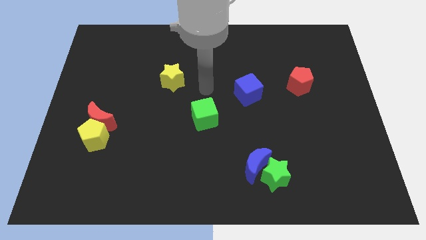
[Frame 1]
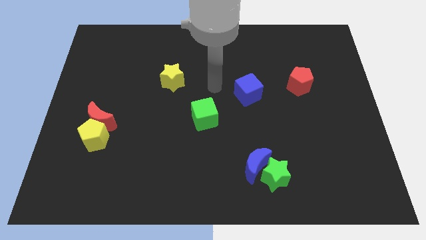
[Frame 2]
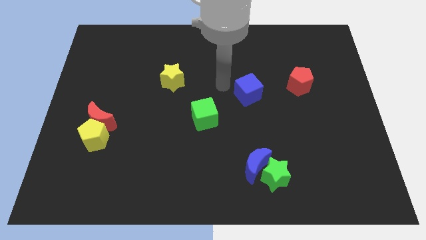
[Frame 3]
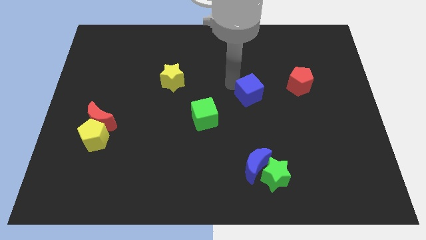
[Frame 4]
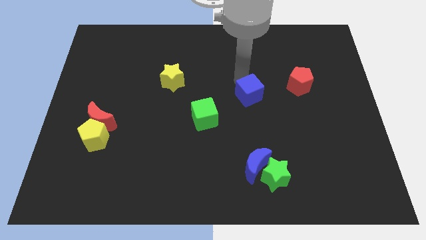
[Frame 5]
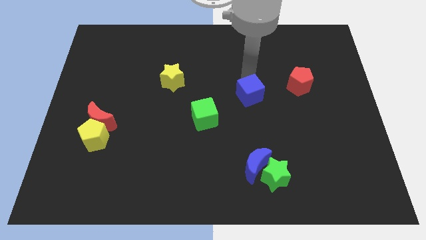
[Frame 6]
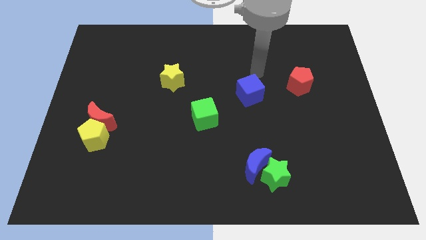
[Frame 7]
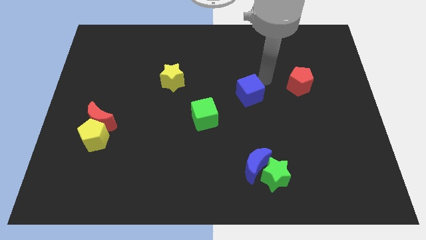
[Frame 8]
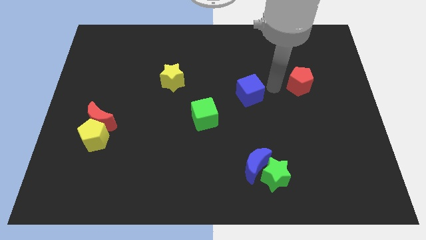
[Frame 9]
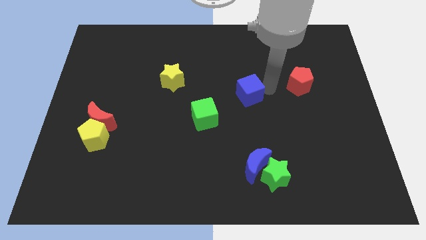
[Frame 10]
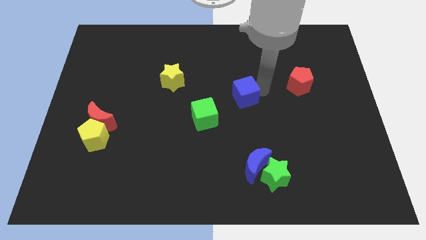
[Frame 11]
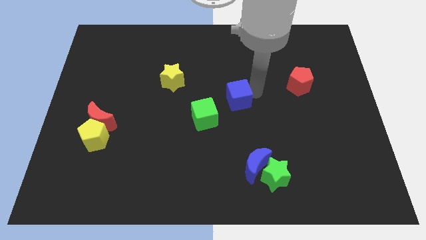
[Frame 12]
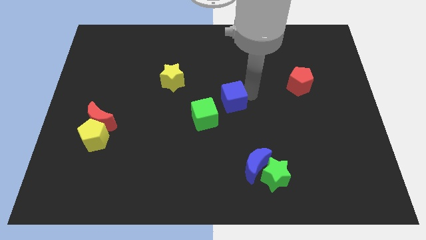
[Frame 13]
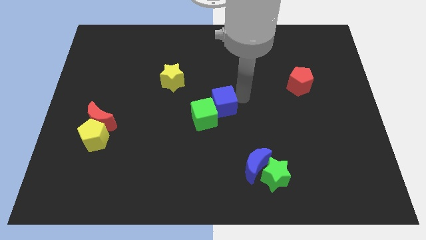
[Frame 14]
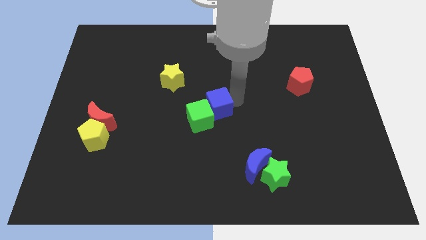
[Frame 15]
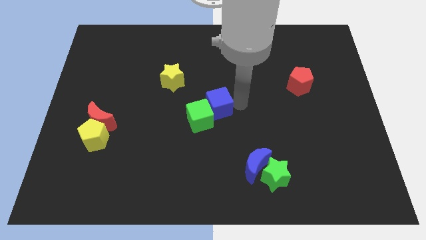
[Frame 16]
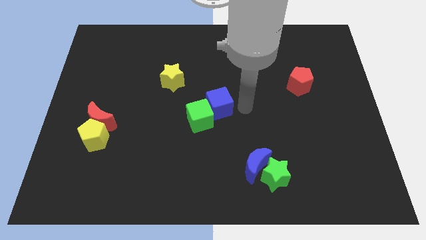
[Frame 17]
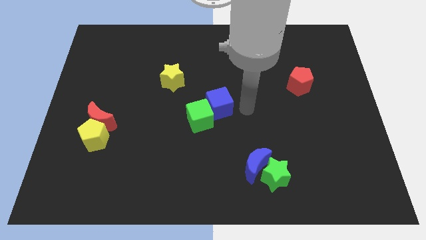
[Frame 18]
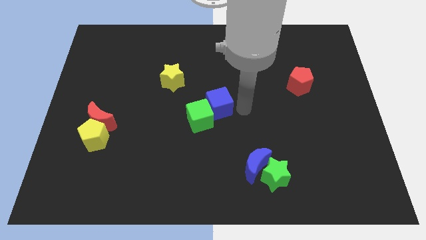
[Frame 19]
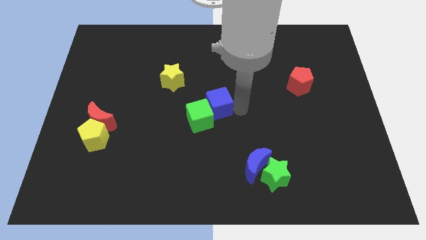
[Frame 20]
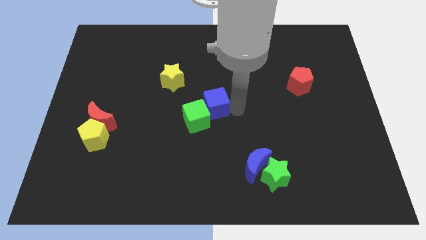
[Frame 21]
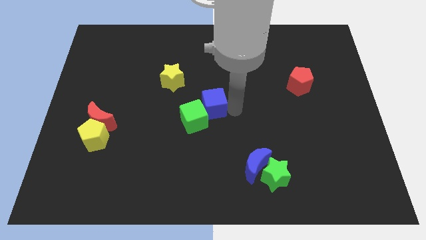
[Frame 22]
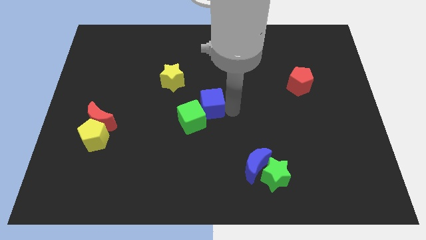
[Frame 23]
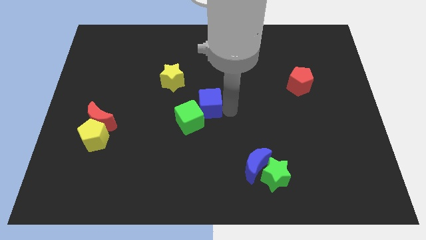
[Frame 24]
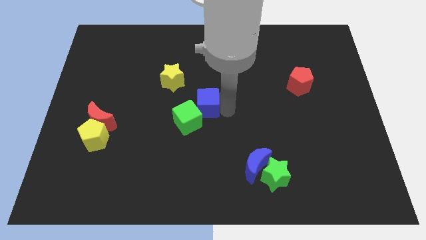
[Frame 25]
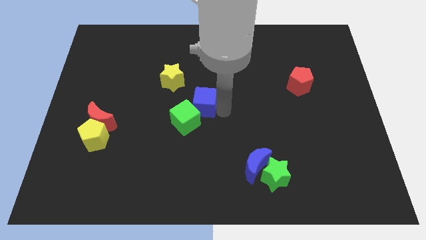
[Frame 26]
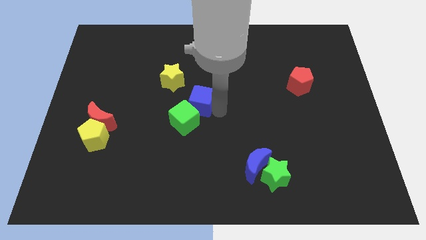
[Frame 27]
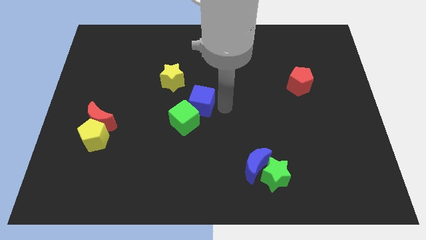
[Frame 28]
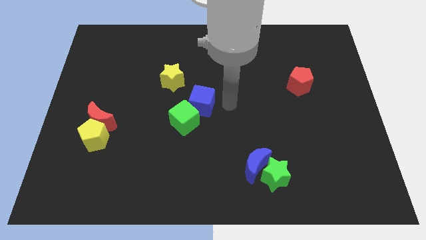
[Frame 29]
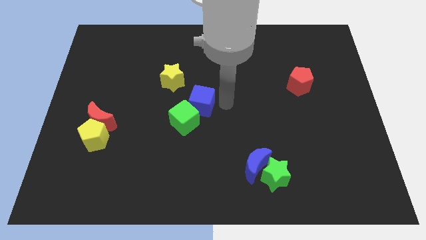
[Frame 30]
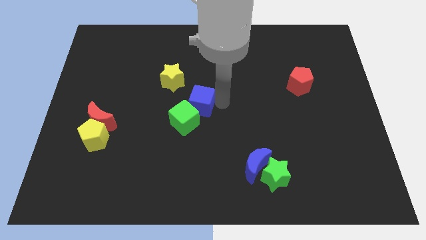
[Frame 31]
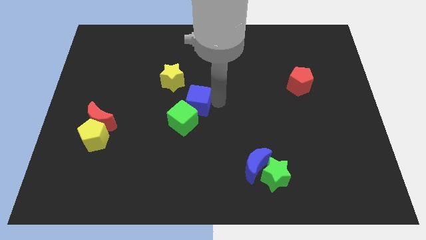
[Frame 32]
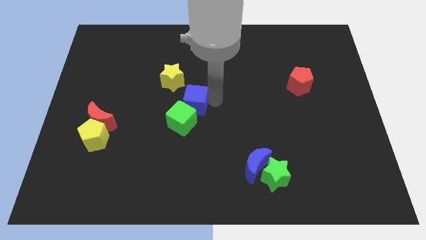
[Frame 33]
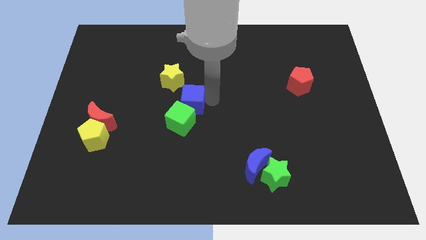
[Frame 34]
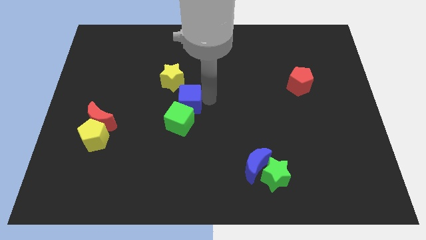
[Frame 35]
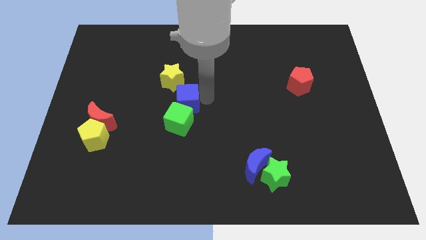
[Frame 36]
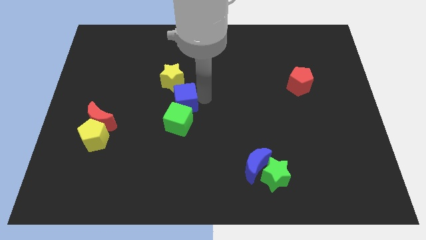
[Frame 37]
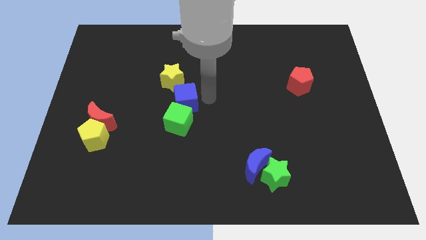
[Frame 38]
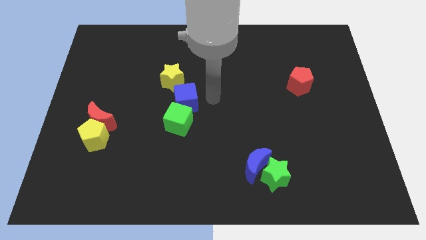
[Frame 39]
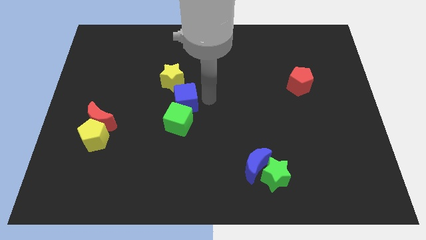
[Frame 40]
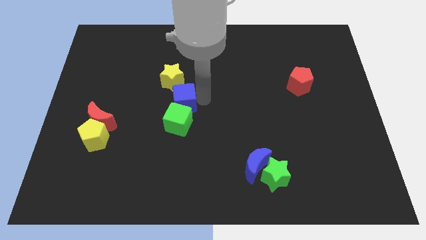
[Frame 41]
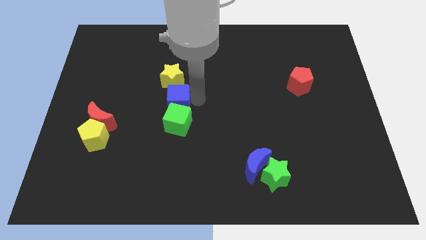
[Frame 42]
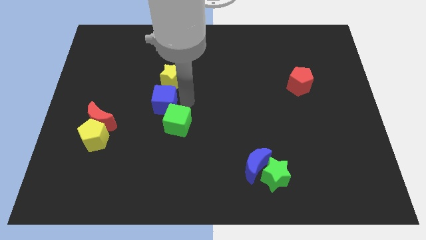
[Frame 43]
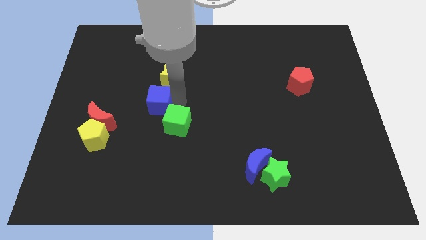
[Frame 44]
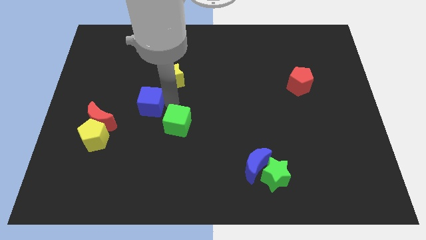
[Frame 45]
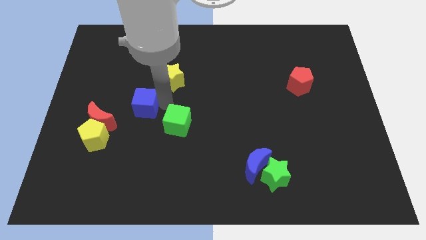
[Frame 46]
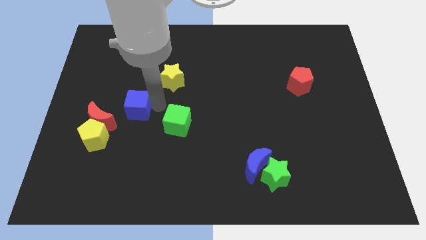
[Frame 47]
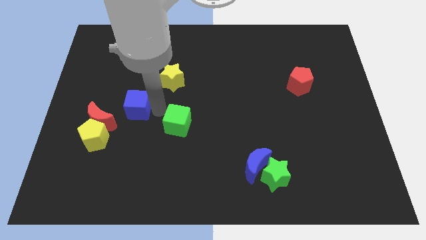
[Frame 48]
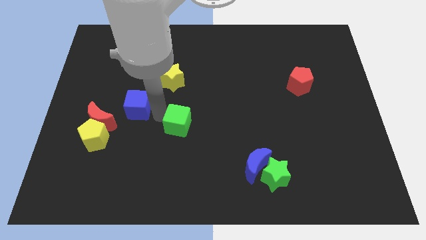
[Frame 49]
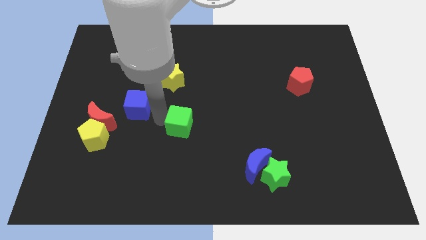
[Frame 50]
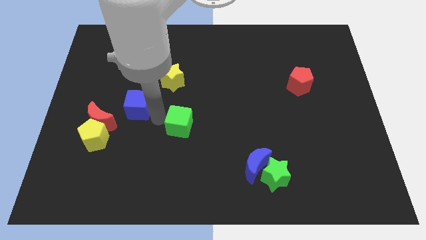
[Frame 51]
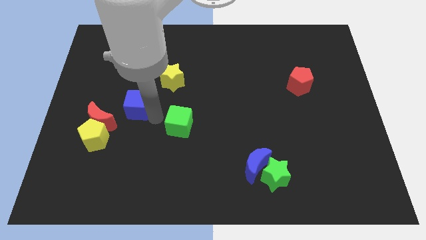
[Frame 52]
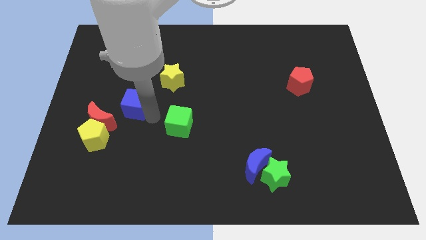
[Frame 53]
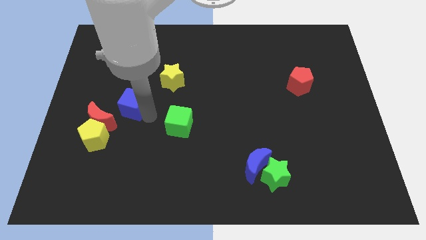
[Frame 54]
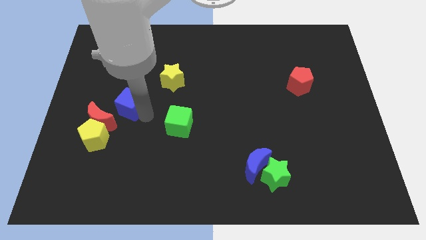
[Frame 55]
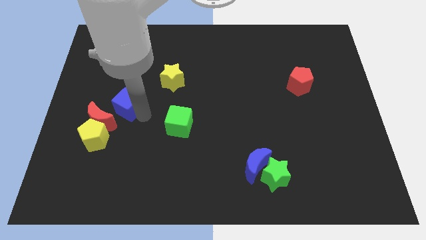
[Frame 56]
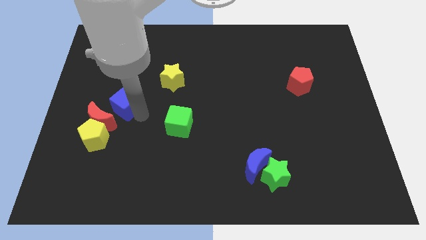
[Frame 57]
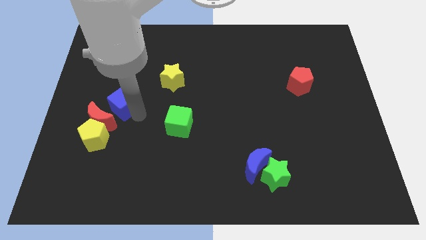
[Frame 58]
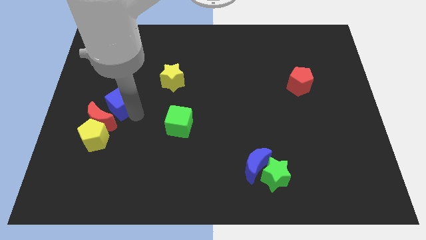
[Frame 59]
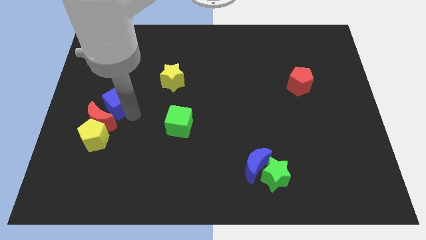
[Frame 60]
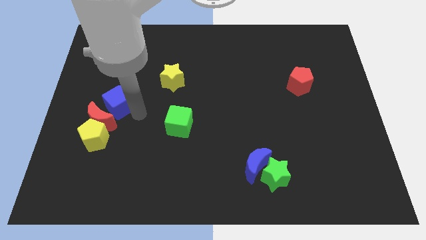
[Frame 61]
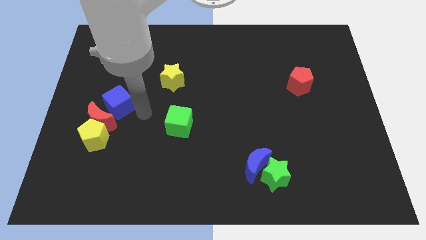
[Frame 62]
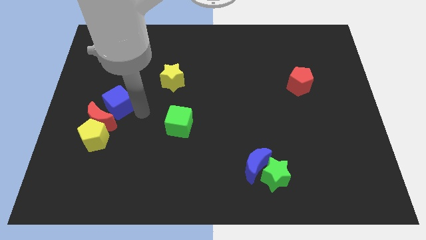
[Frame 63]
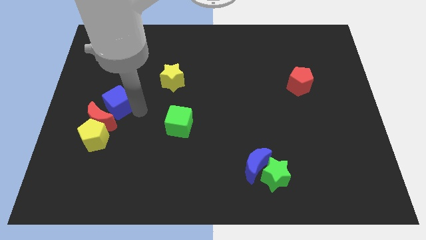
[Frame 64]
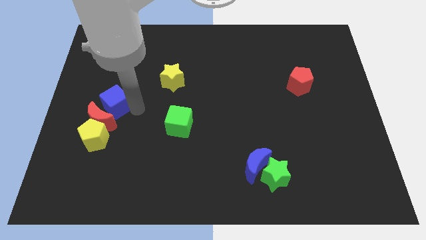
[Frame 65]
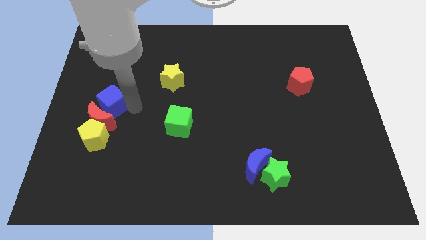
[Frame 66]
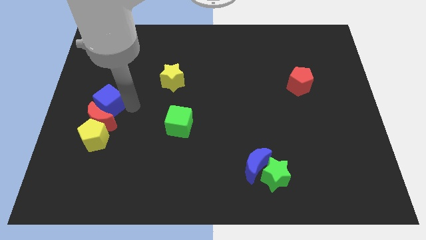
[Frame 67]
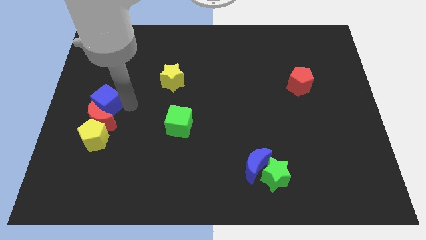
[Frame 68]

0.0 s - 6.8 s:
move the blue cube to the left side of the board

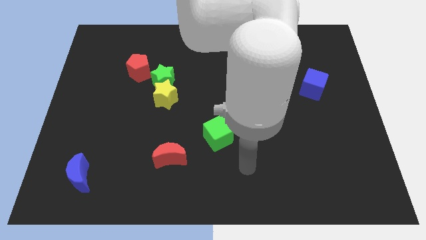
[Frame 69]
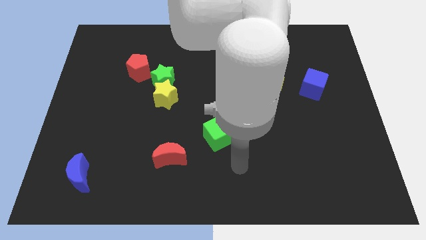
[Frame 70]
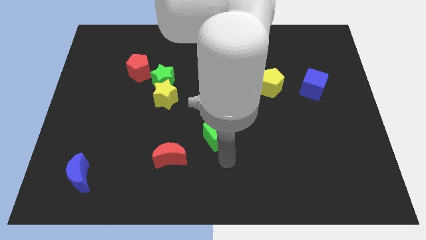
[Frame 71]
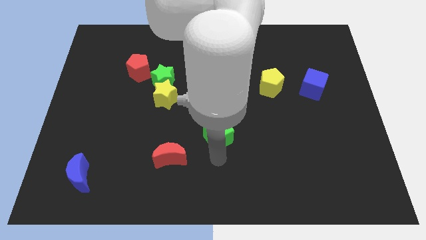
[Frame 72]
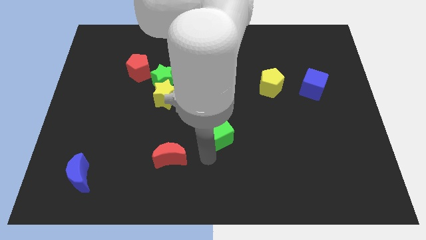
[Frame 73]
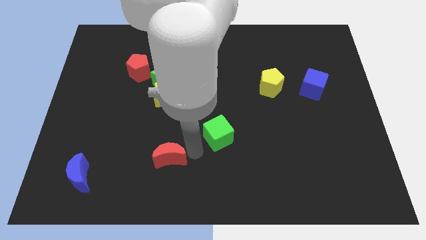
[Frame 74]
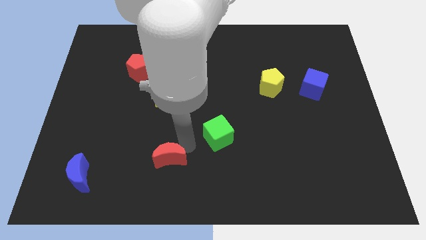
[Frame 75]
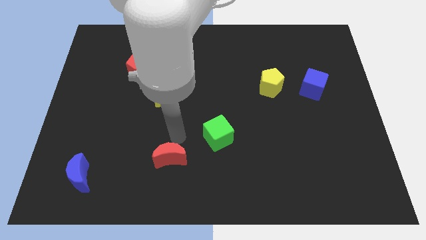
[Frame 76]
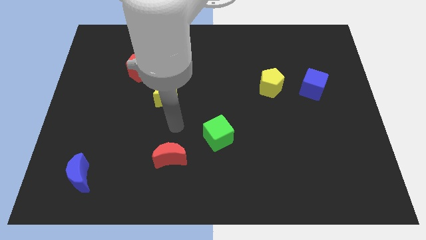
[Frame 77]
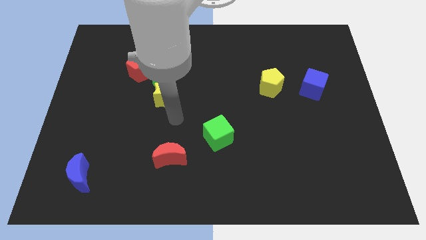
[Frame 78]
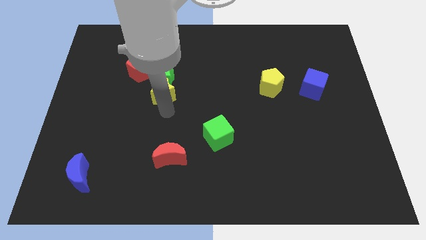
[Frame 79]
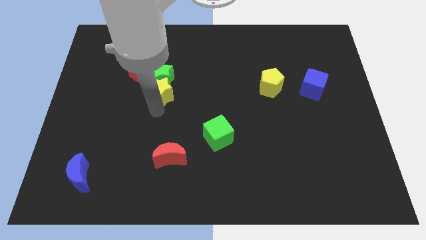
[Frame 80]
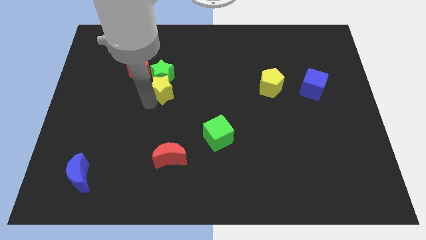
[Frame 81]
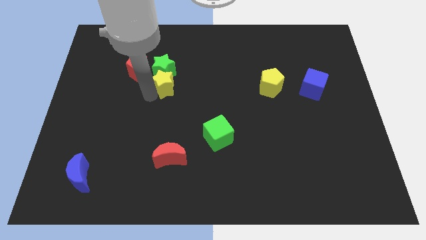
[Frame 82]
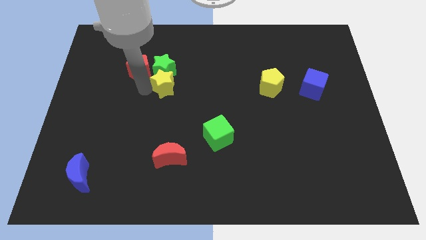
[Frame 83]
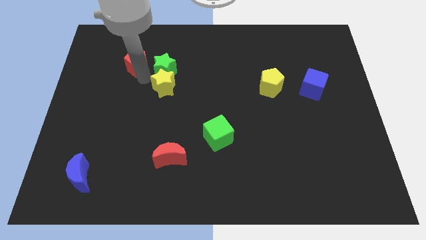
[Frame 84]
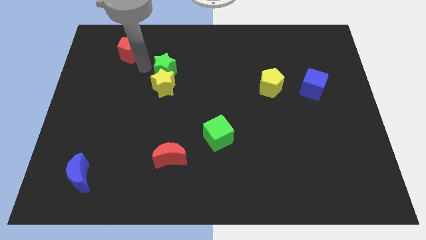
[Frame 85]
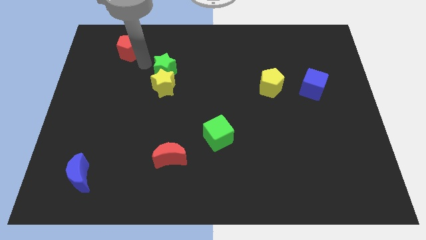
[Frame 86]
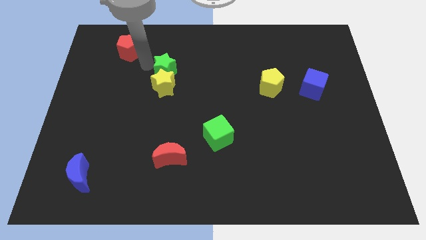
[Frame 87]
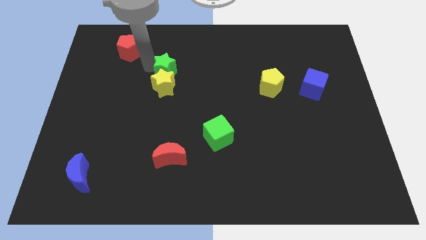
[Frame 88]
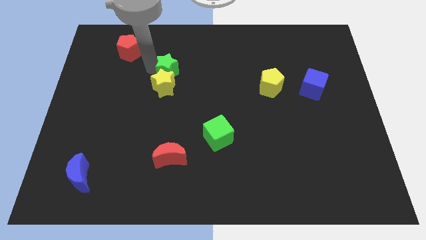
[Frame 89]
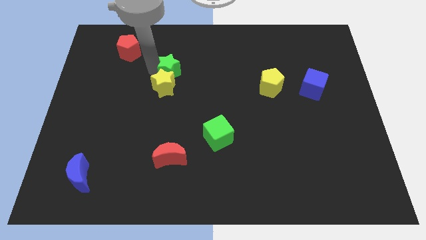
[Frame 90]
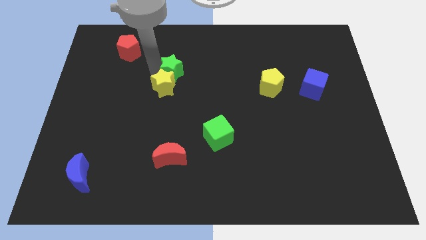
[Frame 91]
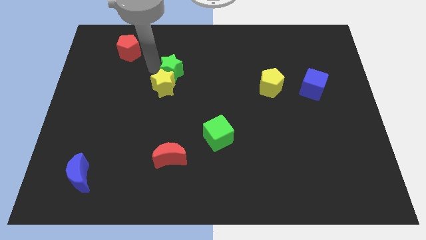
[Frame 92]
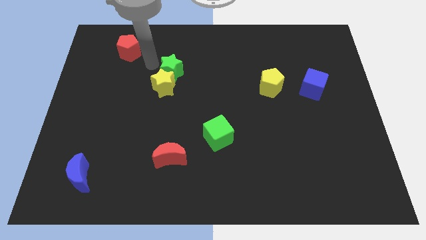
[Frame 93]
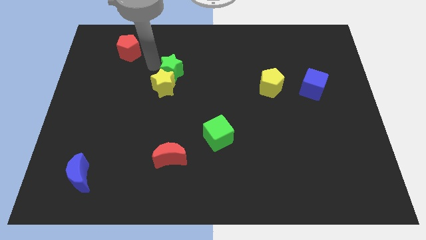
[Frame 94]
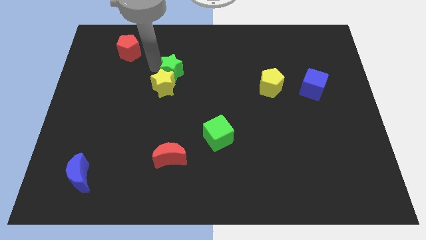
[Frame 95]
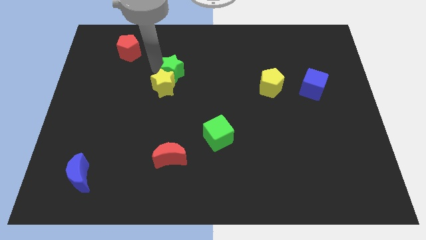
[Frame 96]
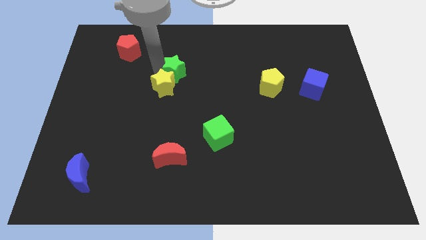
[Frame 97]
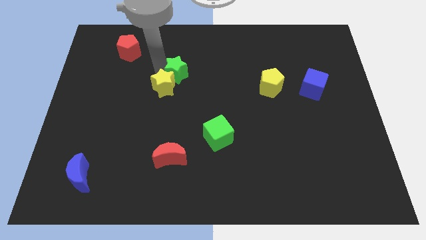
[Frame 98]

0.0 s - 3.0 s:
slide the green star to the center of the board
